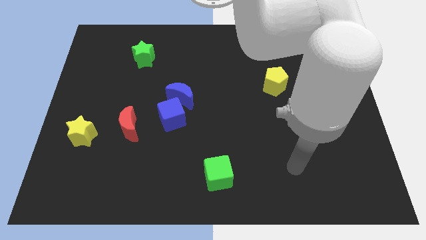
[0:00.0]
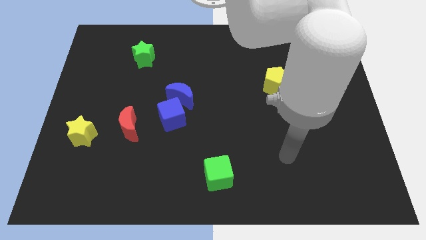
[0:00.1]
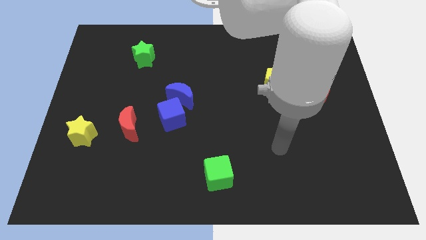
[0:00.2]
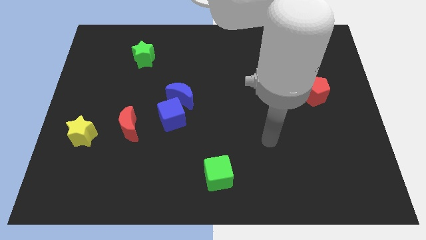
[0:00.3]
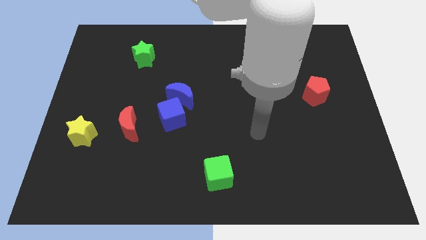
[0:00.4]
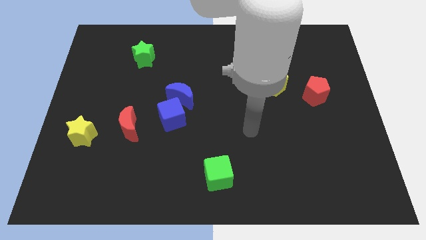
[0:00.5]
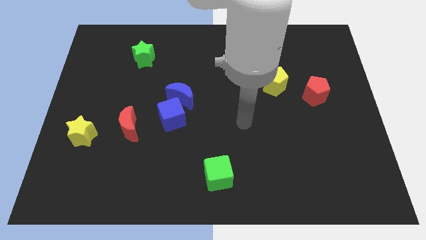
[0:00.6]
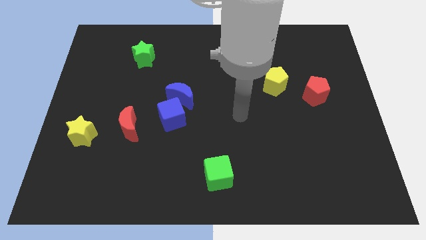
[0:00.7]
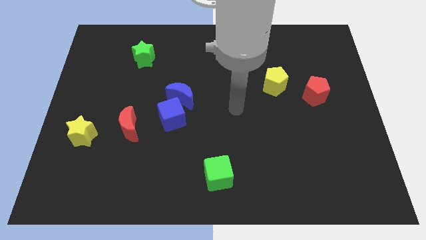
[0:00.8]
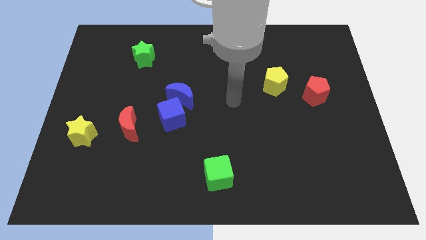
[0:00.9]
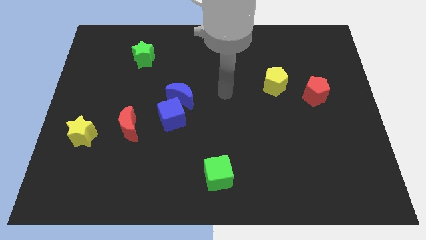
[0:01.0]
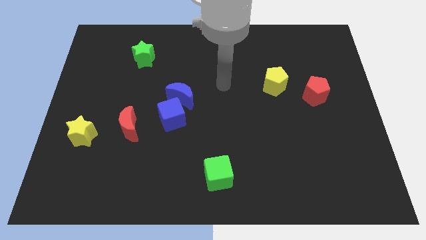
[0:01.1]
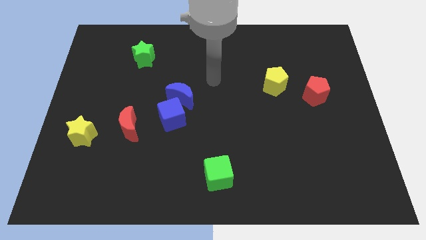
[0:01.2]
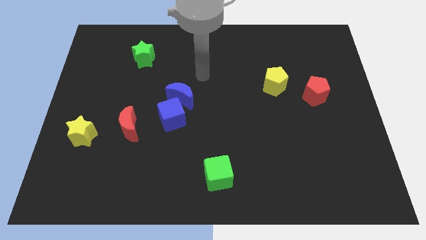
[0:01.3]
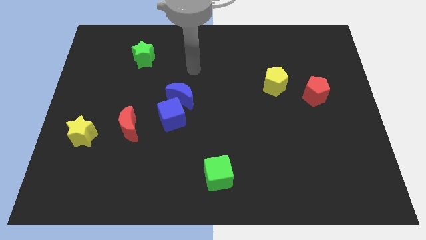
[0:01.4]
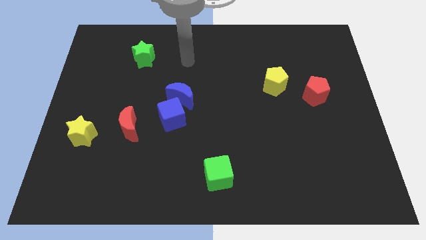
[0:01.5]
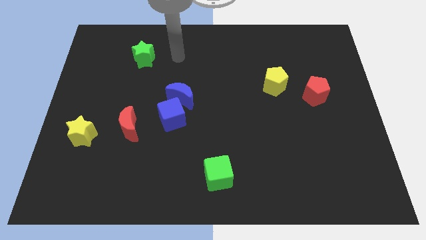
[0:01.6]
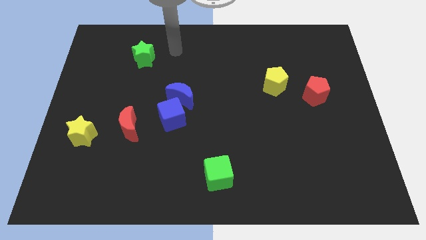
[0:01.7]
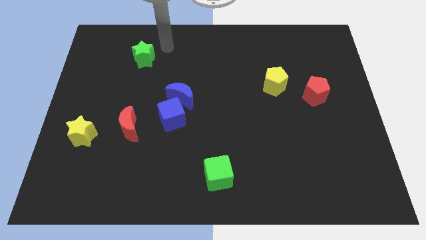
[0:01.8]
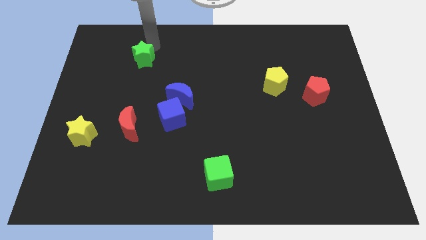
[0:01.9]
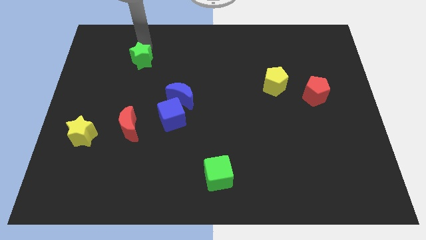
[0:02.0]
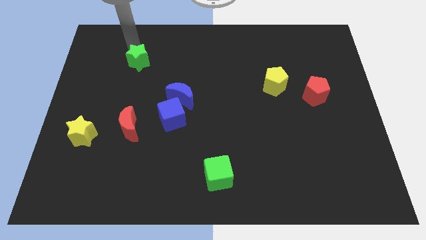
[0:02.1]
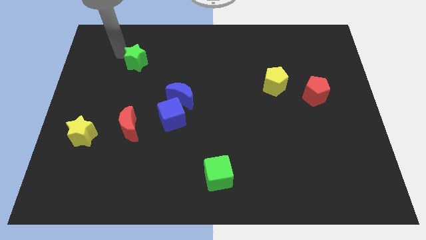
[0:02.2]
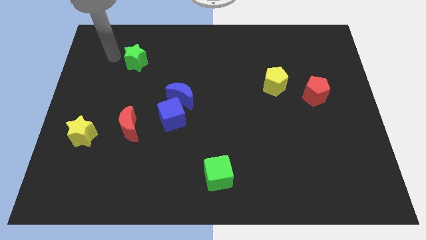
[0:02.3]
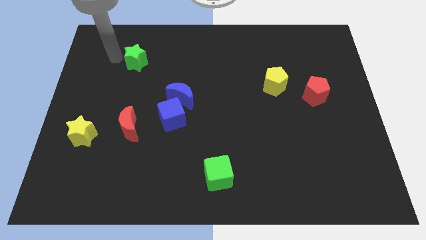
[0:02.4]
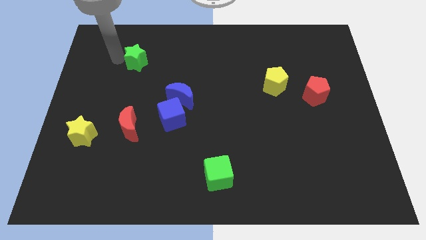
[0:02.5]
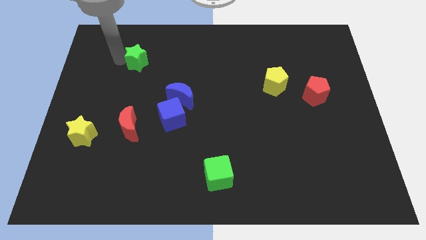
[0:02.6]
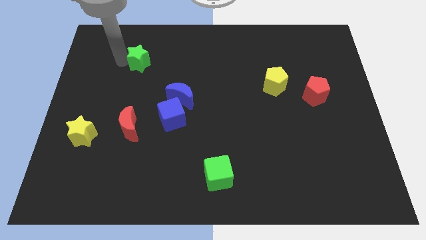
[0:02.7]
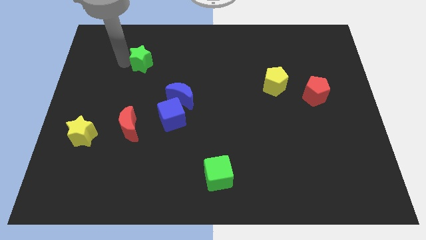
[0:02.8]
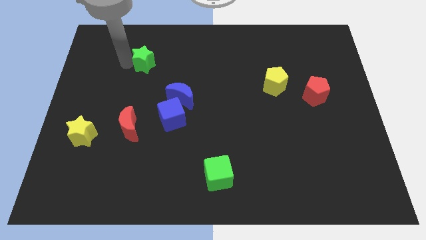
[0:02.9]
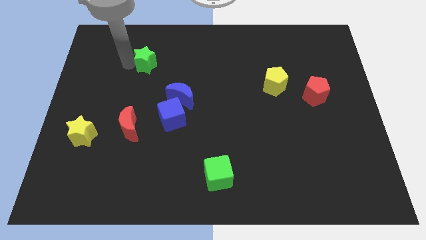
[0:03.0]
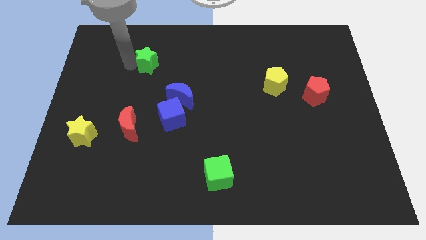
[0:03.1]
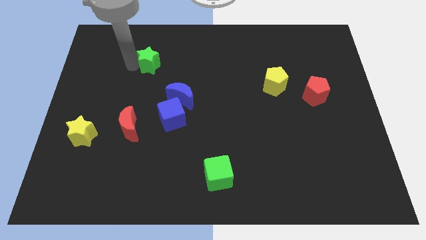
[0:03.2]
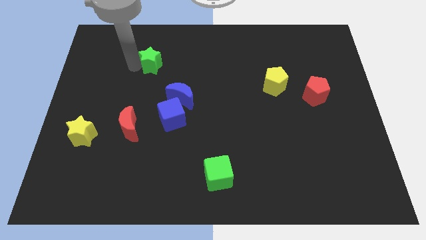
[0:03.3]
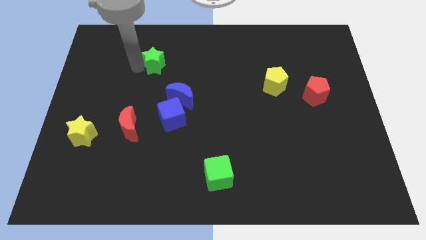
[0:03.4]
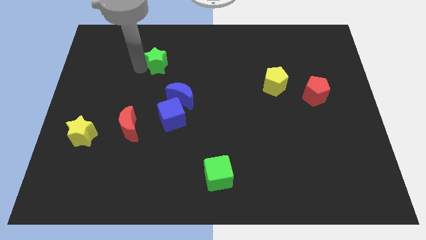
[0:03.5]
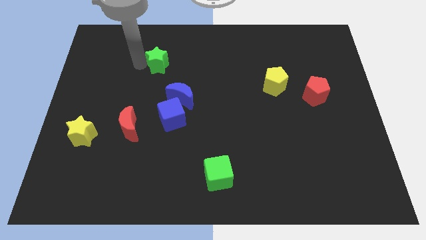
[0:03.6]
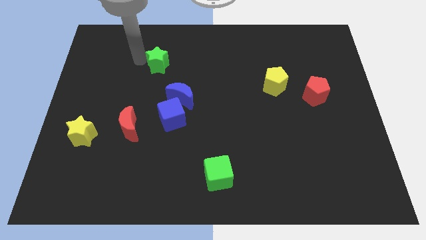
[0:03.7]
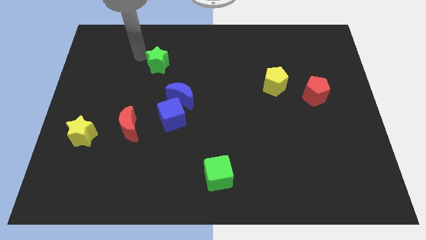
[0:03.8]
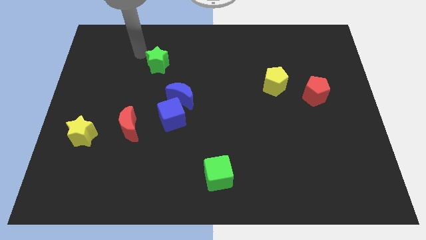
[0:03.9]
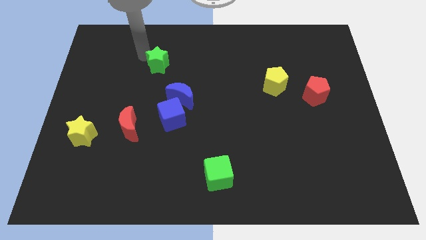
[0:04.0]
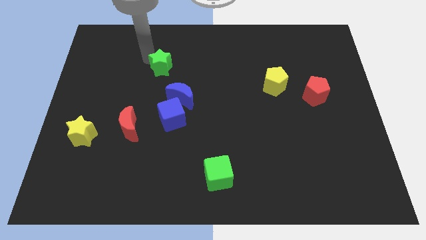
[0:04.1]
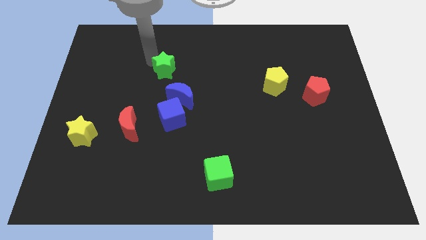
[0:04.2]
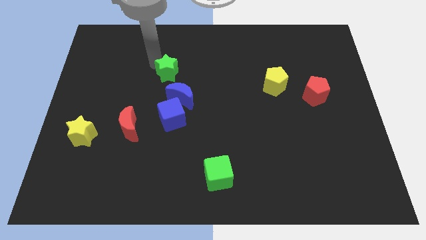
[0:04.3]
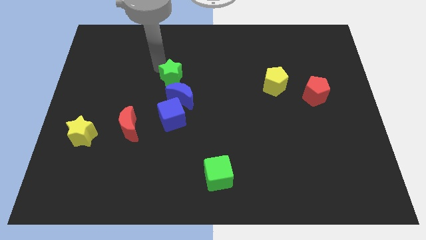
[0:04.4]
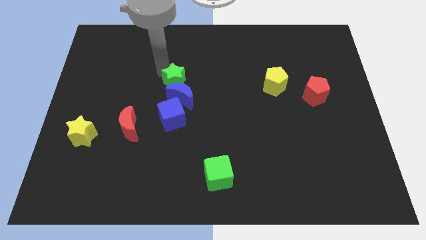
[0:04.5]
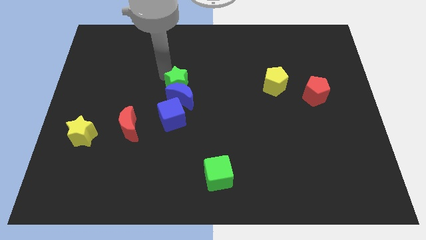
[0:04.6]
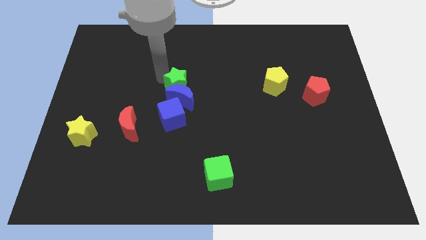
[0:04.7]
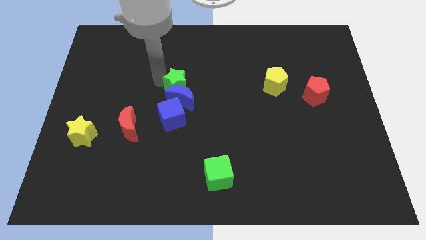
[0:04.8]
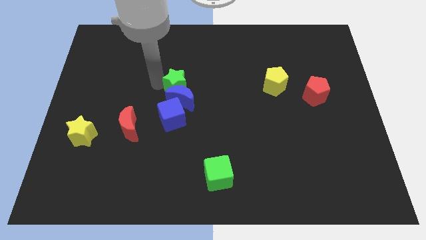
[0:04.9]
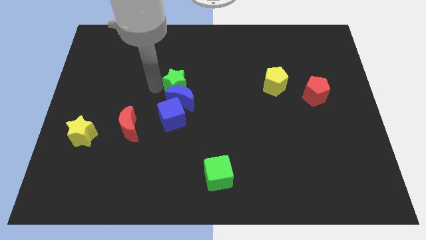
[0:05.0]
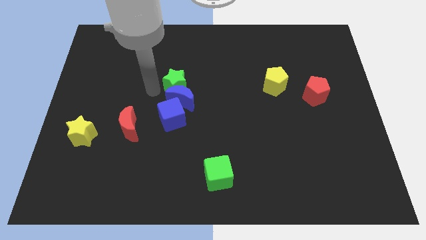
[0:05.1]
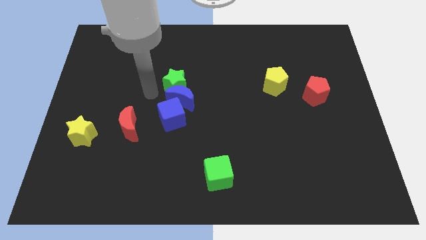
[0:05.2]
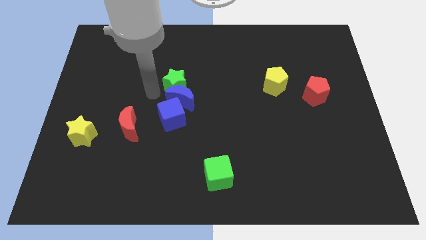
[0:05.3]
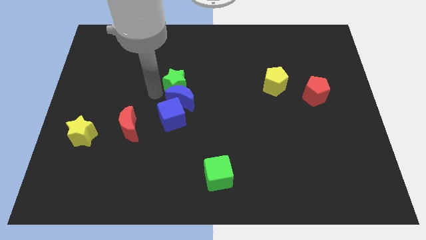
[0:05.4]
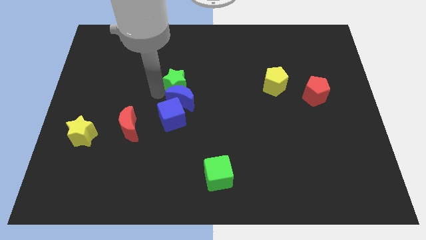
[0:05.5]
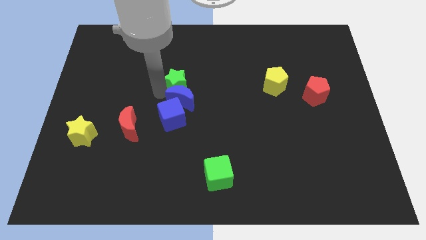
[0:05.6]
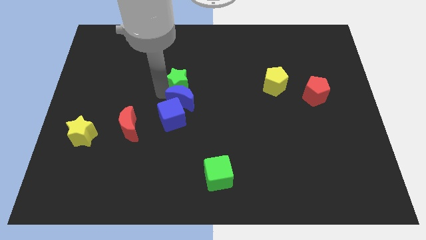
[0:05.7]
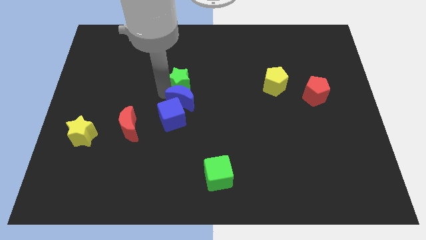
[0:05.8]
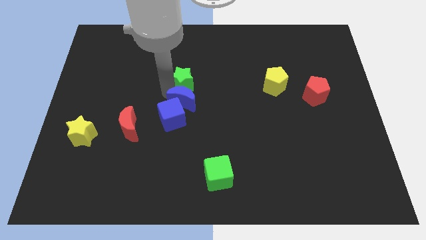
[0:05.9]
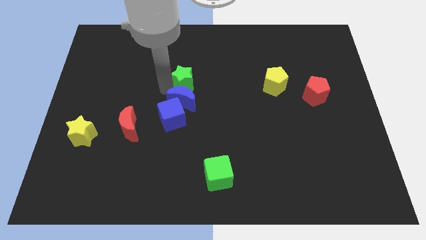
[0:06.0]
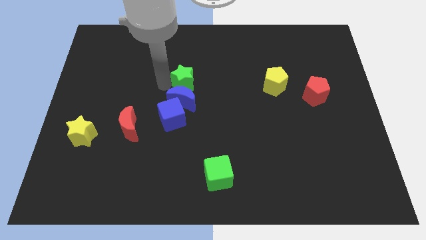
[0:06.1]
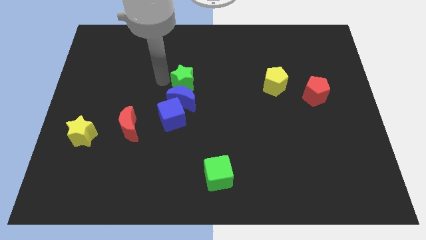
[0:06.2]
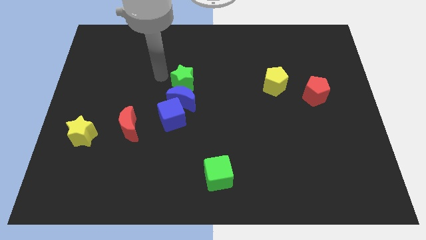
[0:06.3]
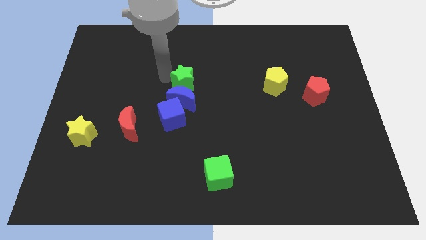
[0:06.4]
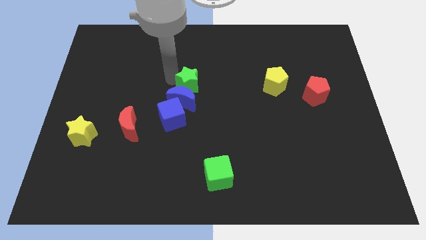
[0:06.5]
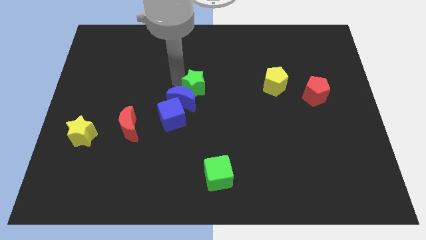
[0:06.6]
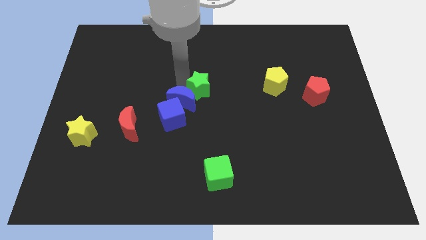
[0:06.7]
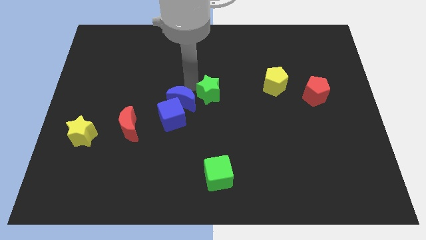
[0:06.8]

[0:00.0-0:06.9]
push the green star down and to the right

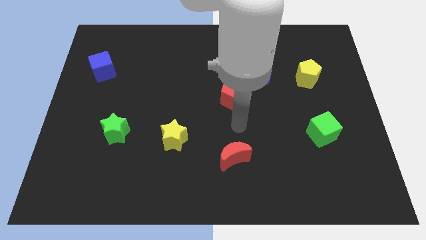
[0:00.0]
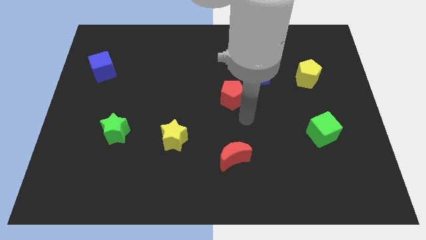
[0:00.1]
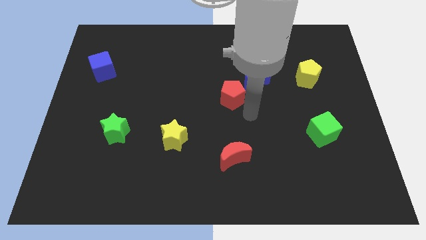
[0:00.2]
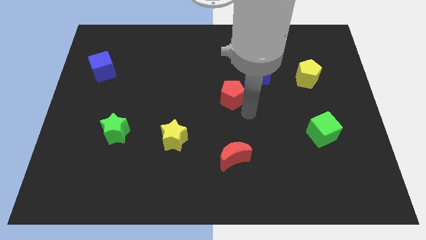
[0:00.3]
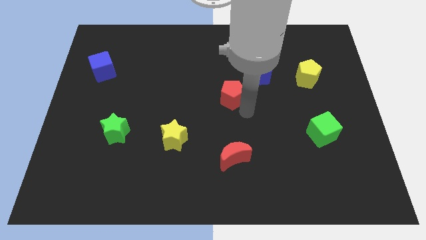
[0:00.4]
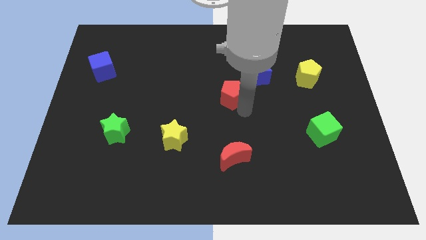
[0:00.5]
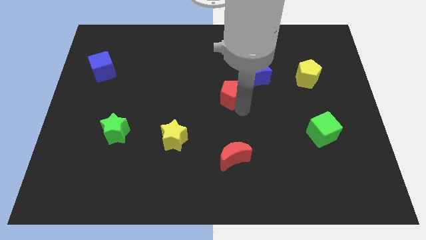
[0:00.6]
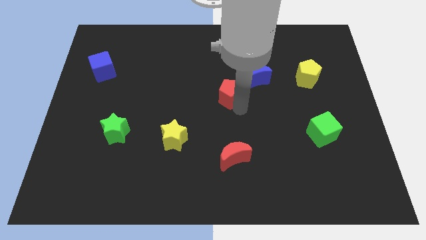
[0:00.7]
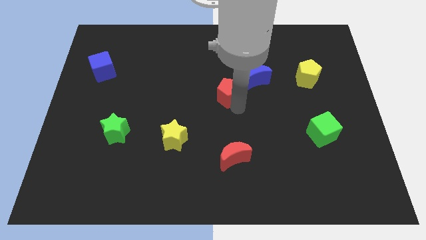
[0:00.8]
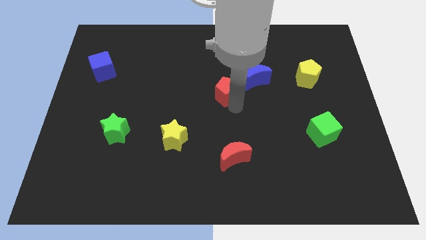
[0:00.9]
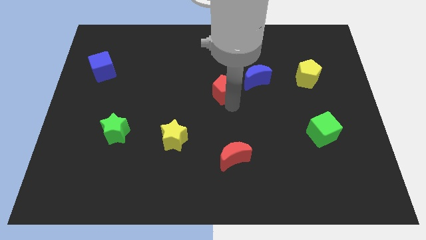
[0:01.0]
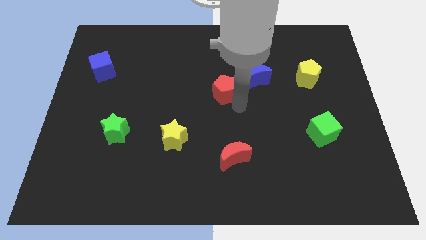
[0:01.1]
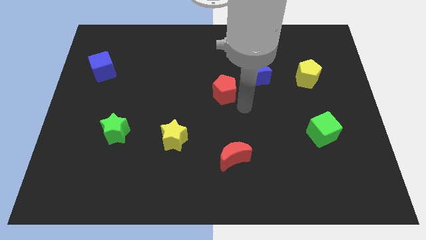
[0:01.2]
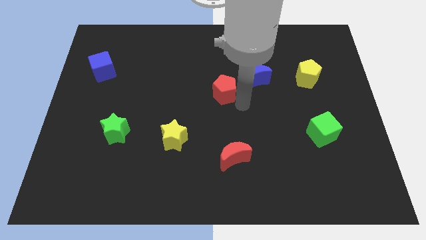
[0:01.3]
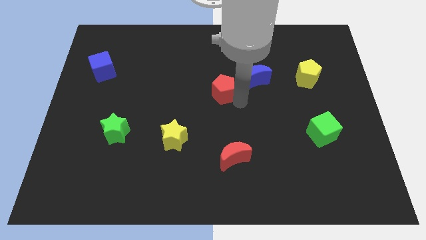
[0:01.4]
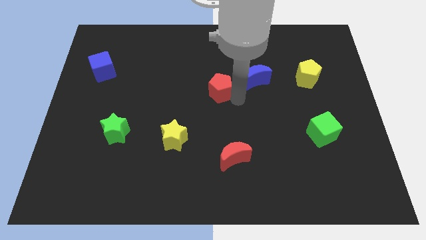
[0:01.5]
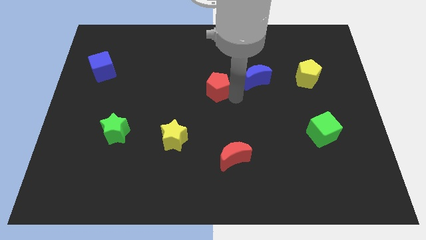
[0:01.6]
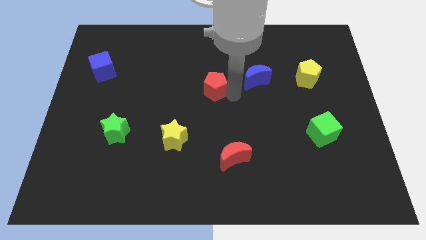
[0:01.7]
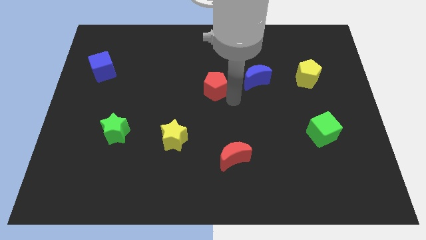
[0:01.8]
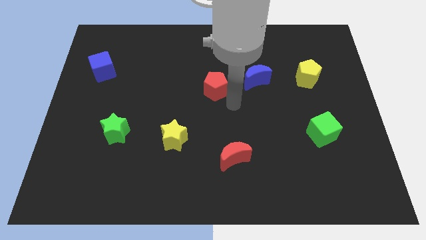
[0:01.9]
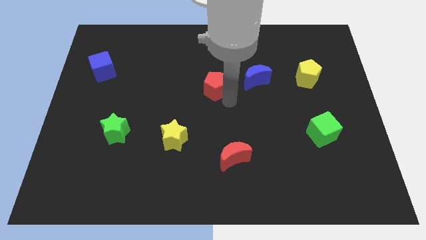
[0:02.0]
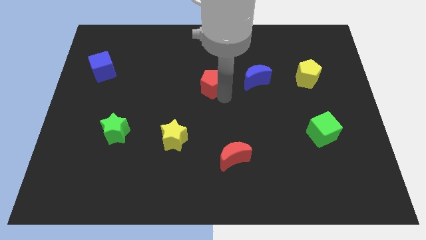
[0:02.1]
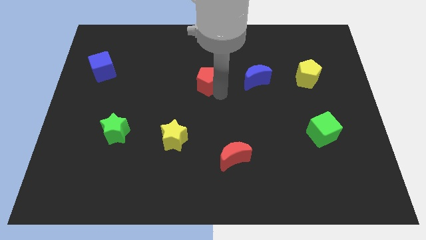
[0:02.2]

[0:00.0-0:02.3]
slightly slide the red pentagon diagonally up and left
